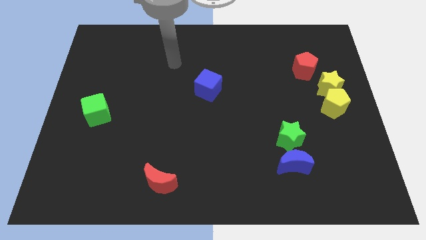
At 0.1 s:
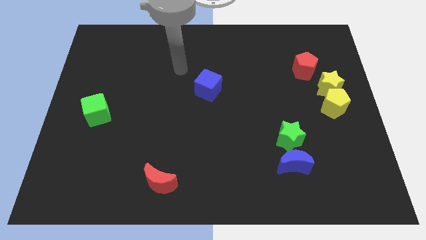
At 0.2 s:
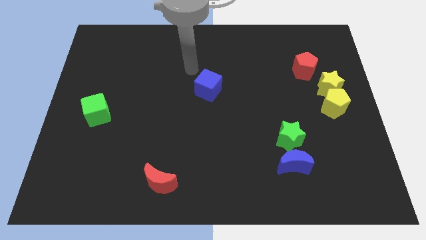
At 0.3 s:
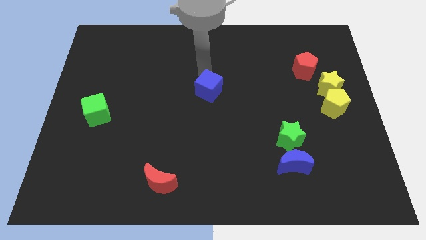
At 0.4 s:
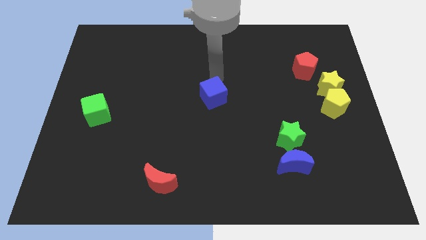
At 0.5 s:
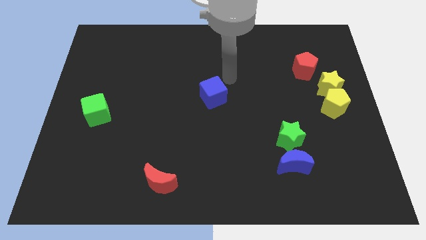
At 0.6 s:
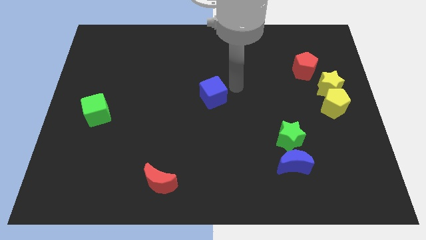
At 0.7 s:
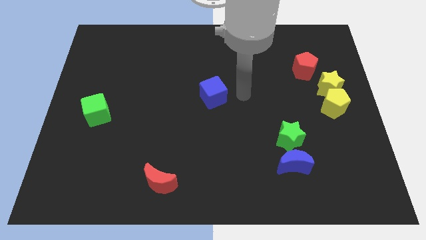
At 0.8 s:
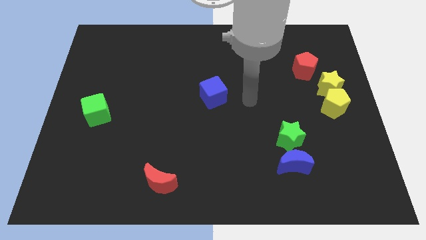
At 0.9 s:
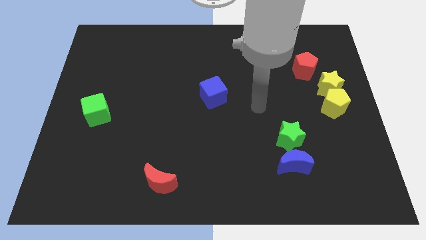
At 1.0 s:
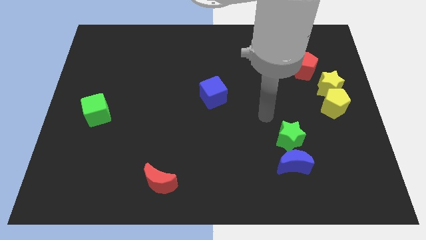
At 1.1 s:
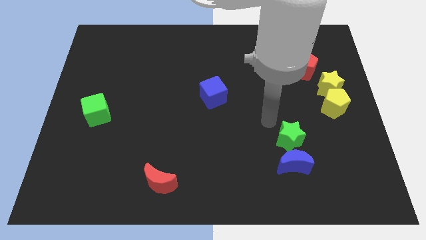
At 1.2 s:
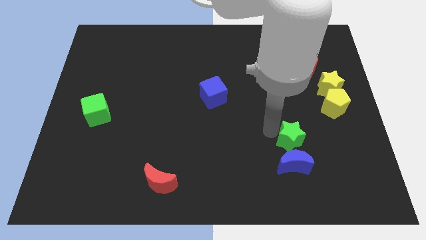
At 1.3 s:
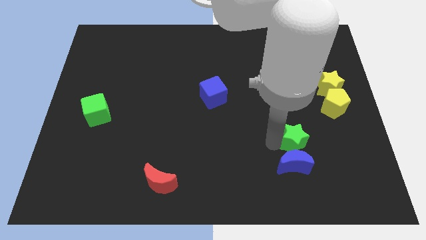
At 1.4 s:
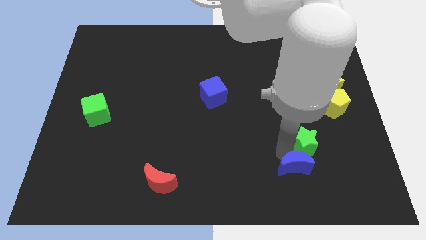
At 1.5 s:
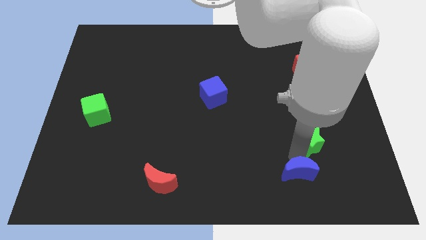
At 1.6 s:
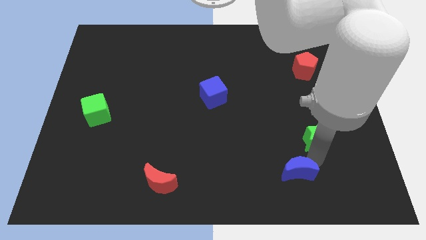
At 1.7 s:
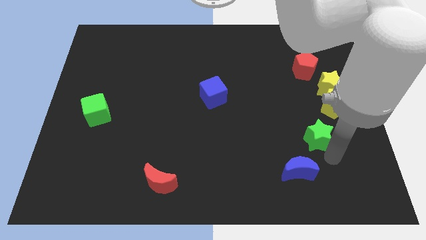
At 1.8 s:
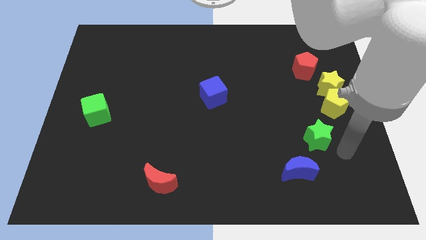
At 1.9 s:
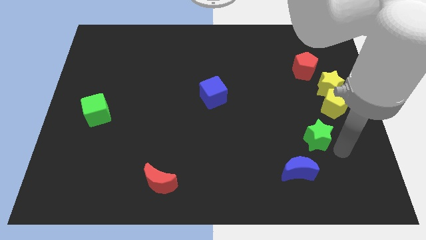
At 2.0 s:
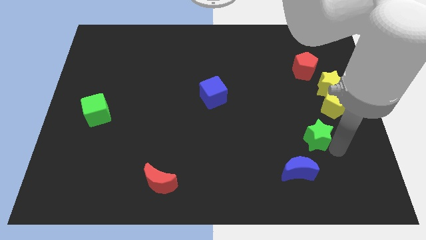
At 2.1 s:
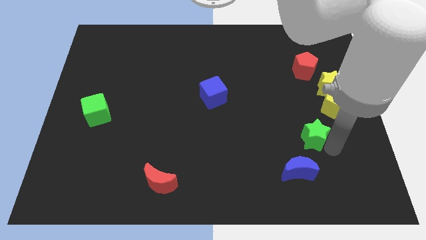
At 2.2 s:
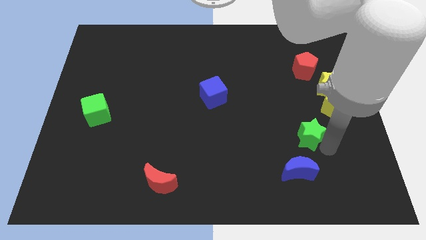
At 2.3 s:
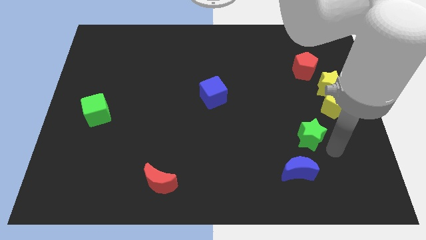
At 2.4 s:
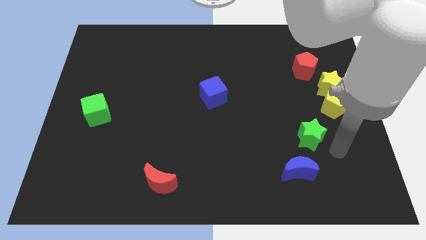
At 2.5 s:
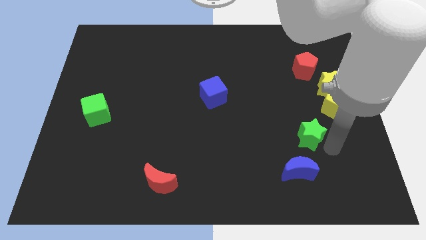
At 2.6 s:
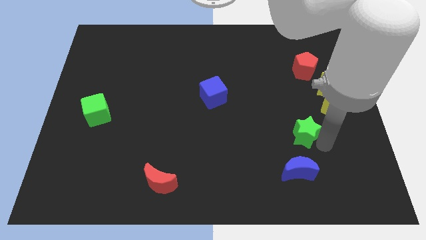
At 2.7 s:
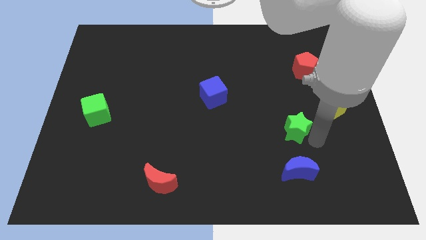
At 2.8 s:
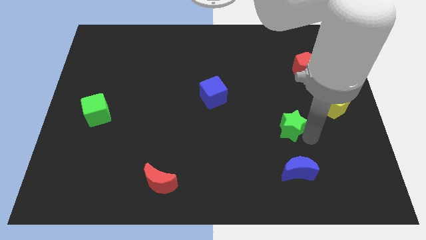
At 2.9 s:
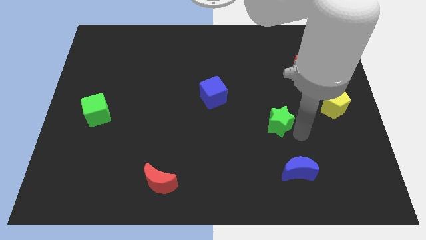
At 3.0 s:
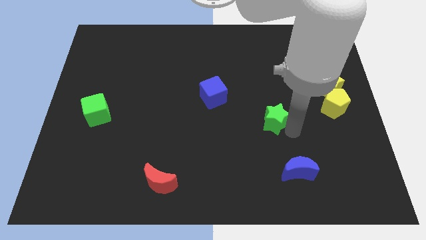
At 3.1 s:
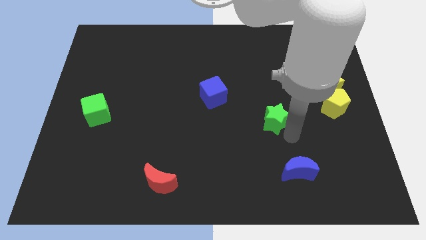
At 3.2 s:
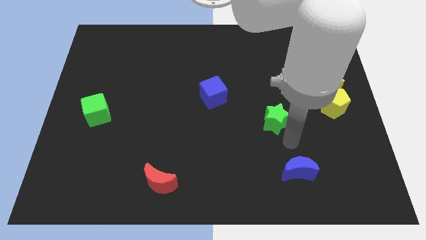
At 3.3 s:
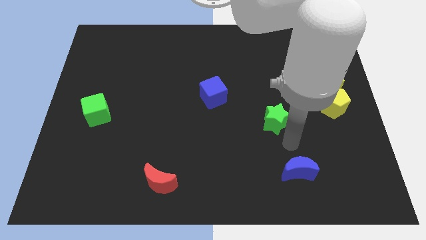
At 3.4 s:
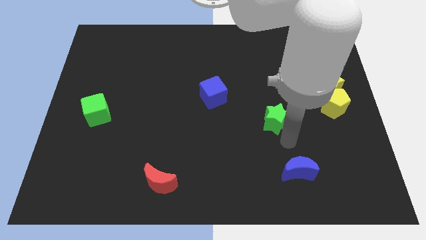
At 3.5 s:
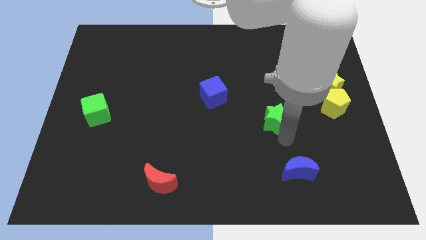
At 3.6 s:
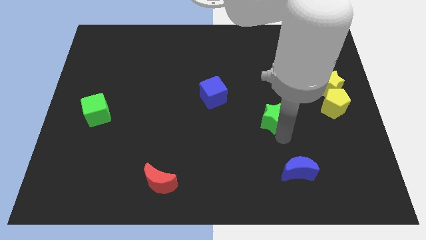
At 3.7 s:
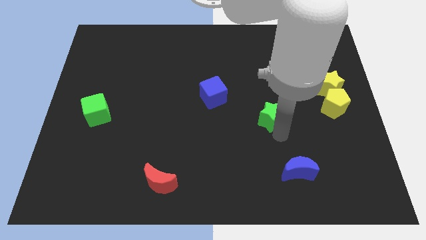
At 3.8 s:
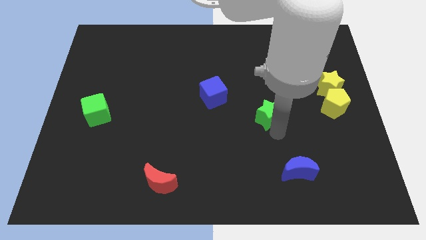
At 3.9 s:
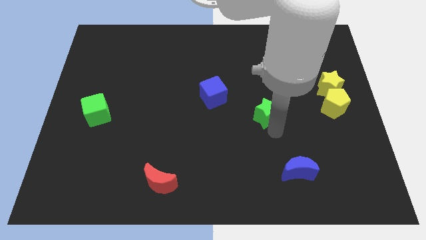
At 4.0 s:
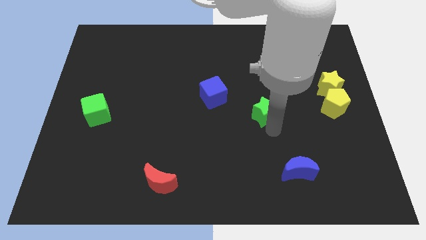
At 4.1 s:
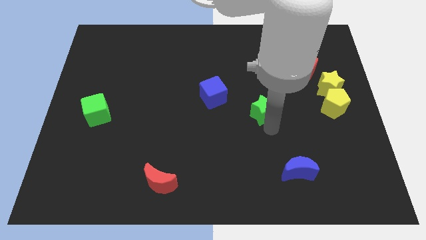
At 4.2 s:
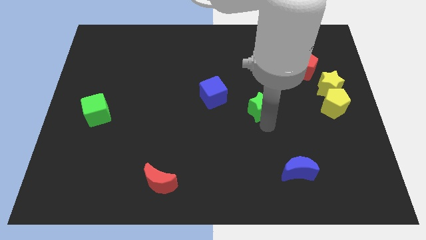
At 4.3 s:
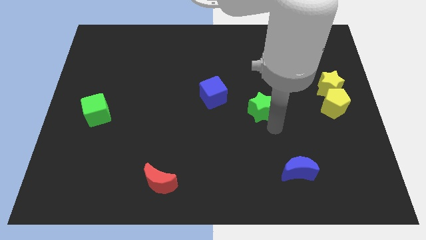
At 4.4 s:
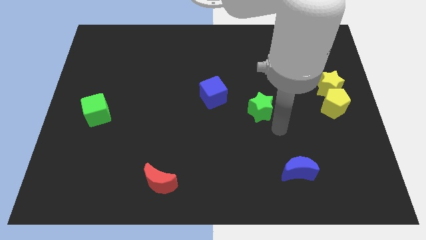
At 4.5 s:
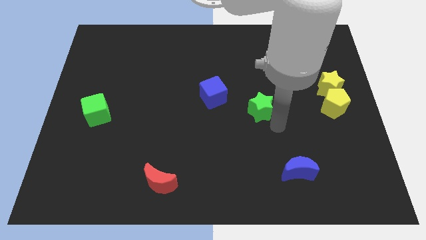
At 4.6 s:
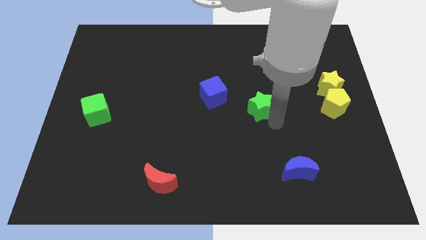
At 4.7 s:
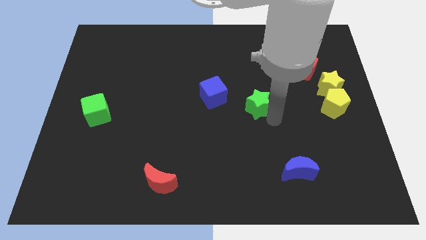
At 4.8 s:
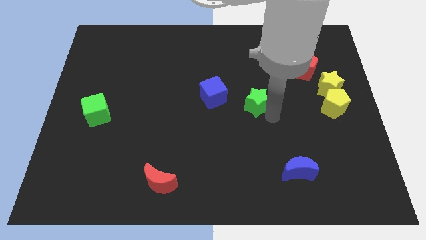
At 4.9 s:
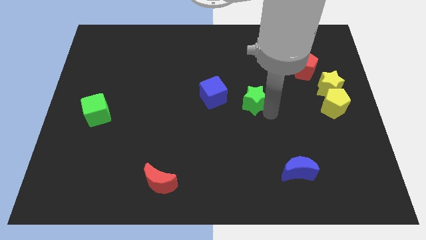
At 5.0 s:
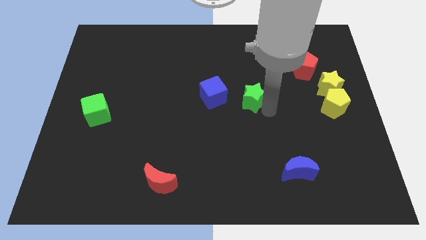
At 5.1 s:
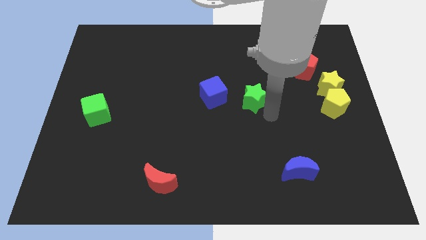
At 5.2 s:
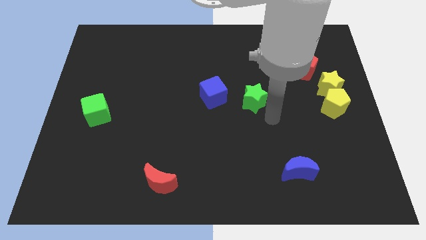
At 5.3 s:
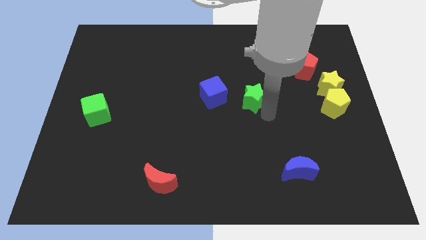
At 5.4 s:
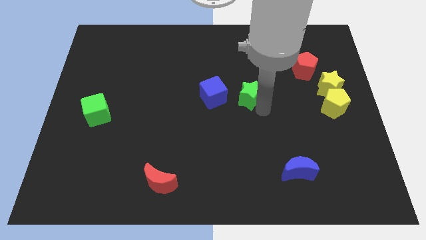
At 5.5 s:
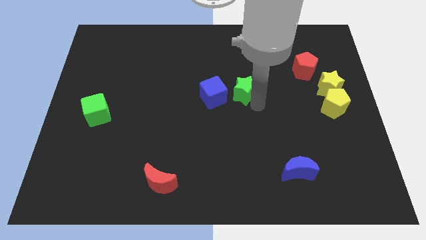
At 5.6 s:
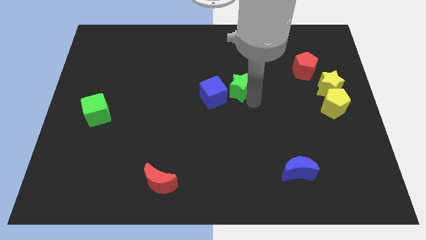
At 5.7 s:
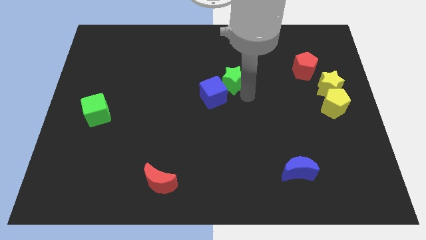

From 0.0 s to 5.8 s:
push the green star upwards and left

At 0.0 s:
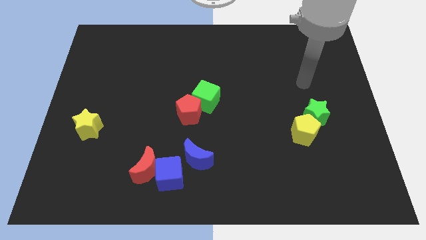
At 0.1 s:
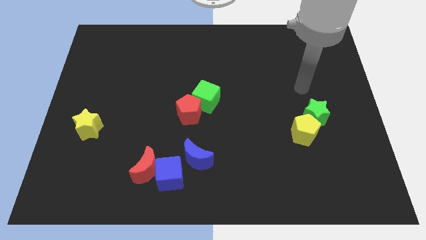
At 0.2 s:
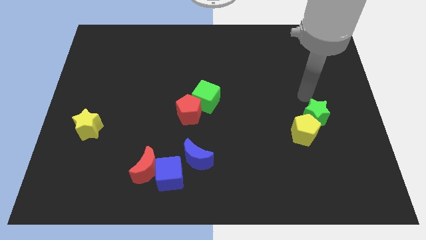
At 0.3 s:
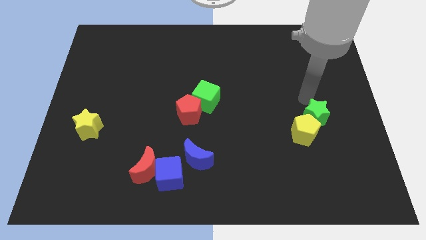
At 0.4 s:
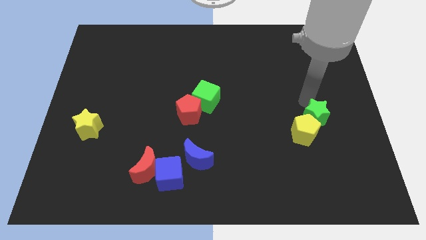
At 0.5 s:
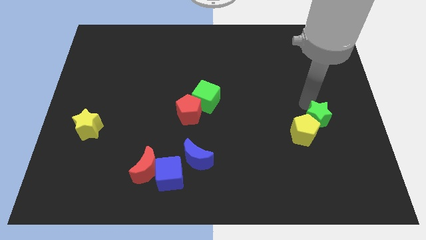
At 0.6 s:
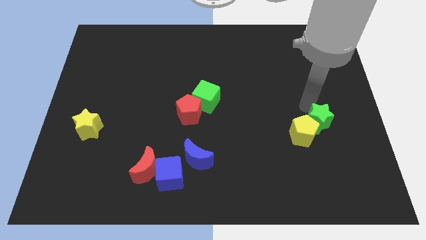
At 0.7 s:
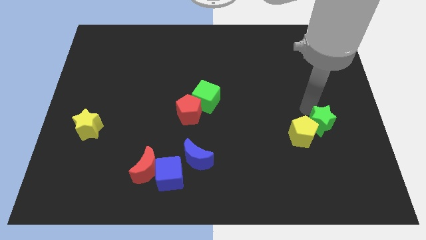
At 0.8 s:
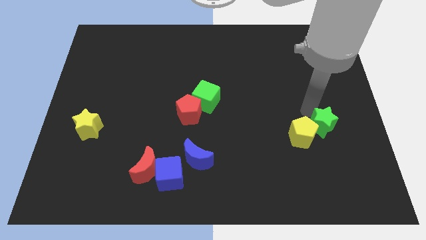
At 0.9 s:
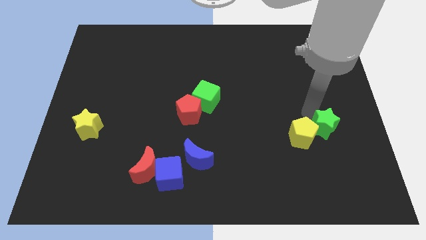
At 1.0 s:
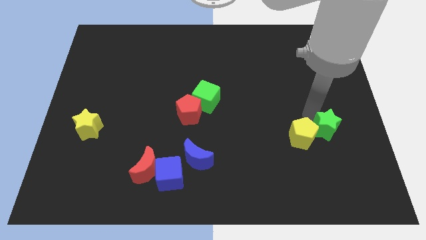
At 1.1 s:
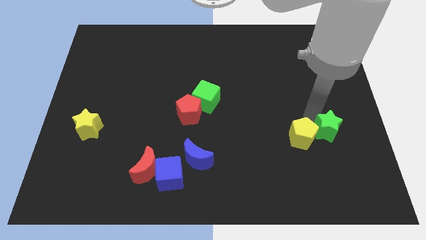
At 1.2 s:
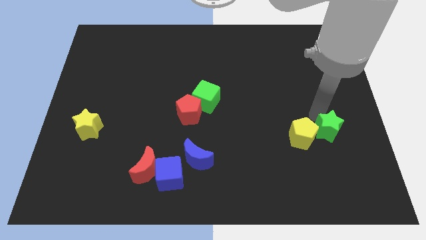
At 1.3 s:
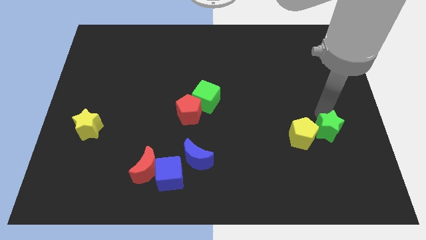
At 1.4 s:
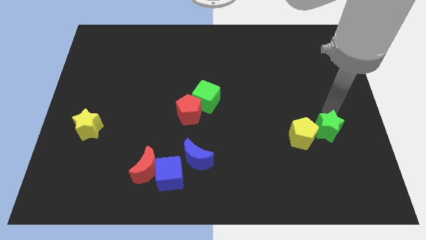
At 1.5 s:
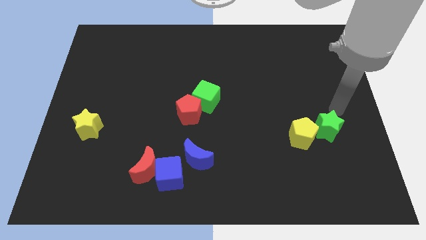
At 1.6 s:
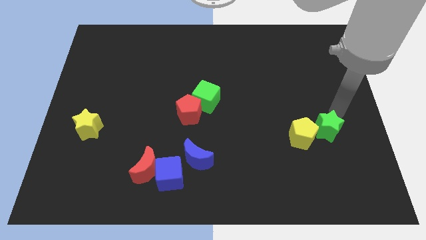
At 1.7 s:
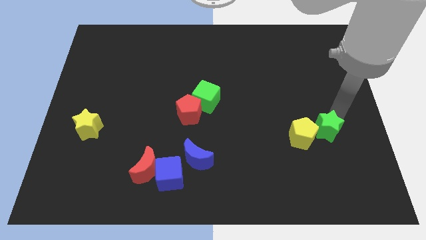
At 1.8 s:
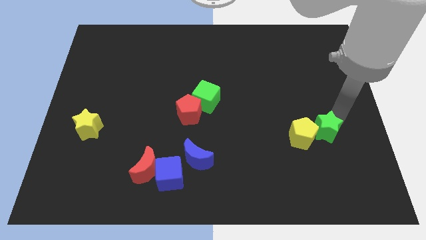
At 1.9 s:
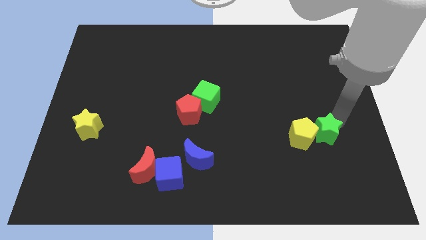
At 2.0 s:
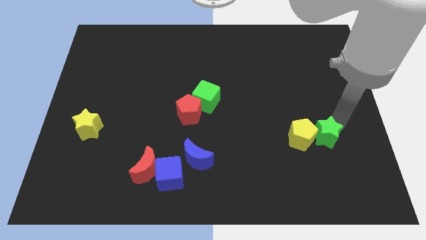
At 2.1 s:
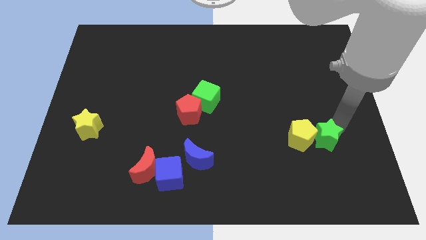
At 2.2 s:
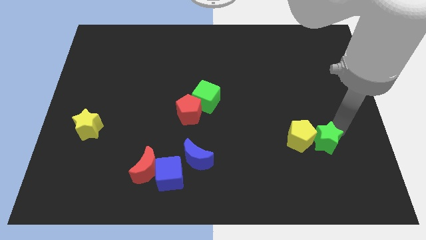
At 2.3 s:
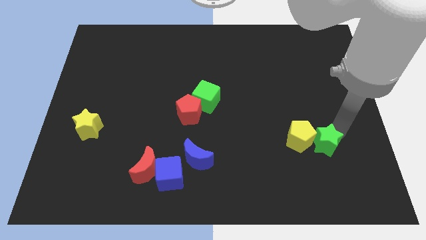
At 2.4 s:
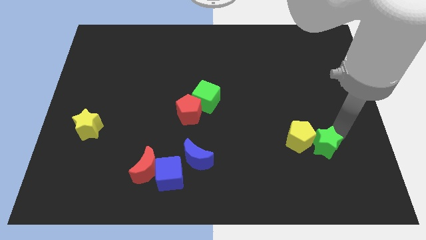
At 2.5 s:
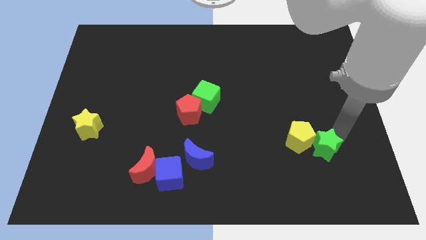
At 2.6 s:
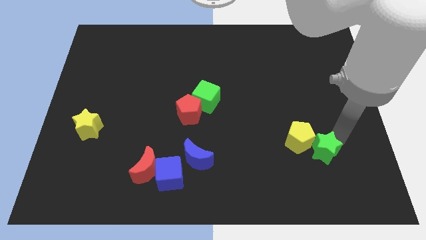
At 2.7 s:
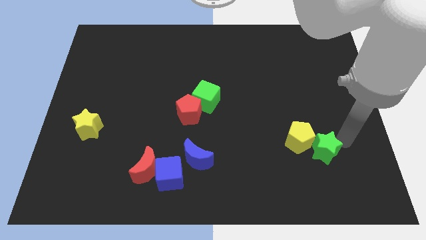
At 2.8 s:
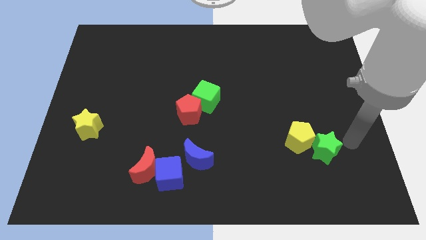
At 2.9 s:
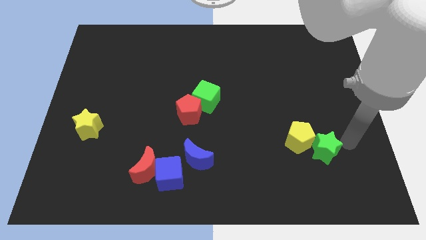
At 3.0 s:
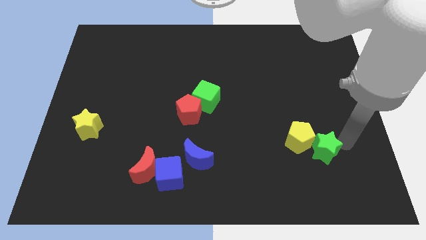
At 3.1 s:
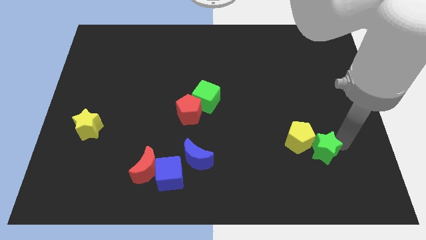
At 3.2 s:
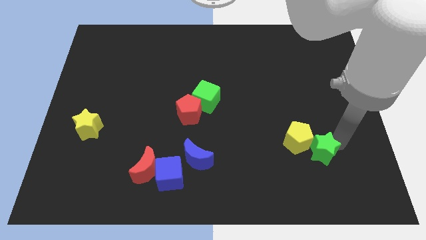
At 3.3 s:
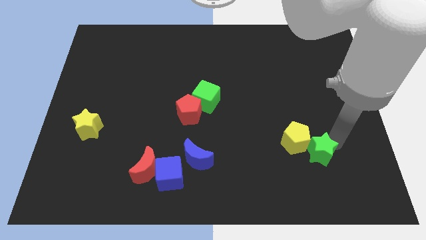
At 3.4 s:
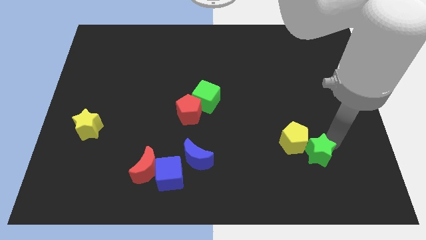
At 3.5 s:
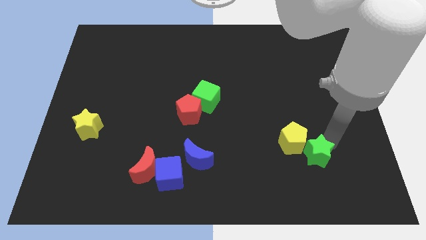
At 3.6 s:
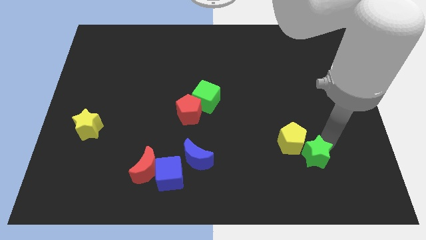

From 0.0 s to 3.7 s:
slide the green star slightly down and left
